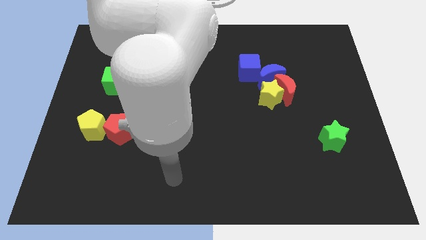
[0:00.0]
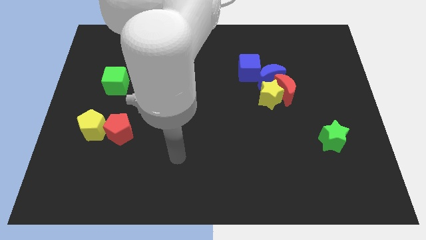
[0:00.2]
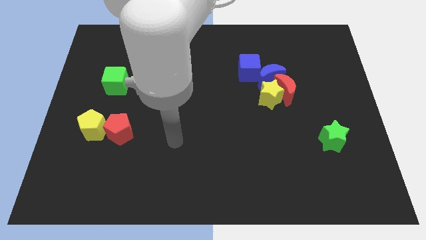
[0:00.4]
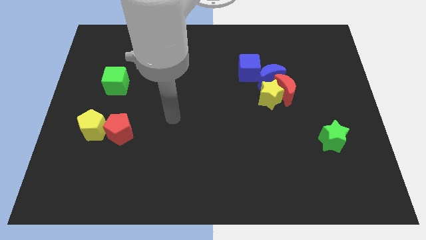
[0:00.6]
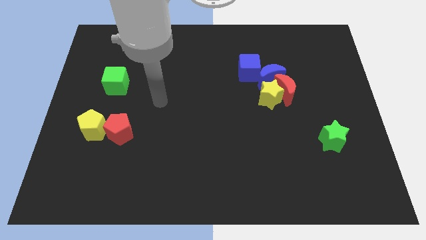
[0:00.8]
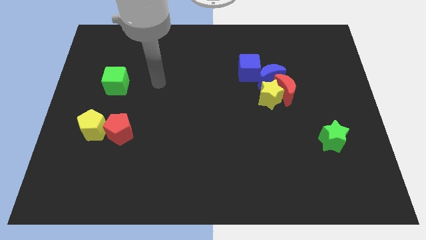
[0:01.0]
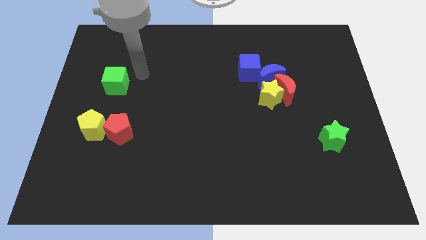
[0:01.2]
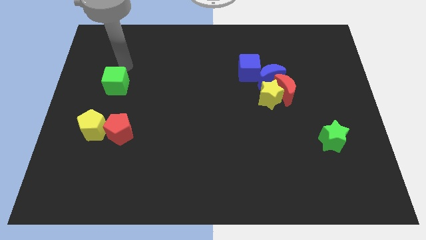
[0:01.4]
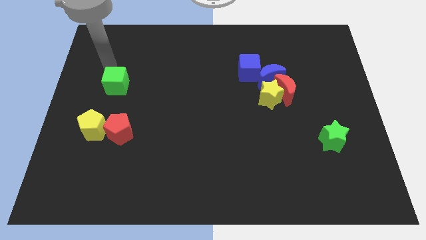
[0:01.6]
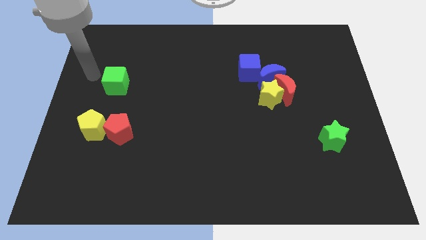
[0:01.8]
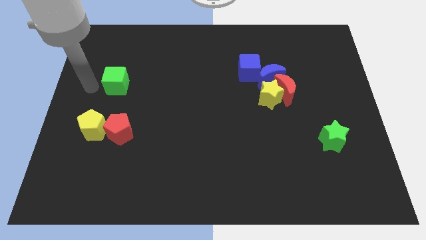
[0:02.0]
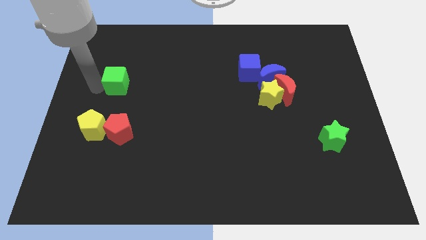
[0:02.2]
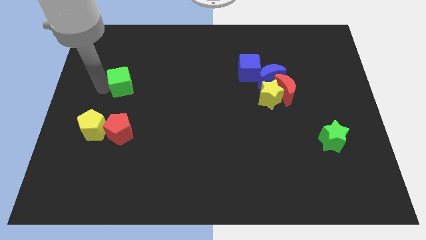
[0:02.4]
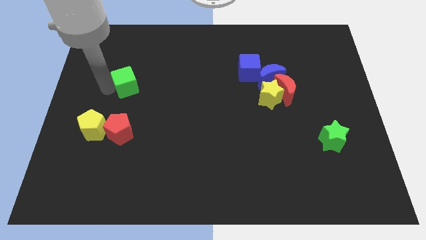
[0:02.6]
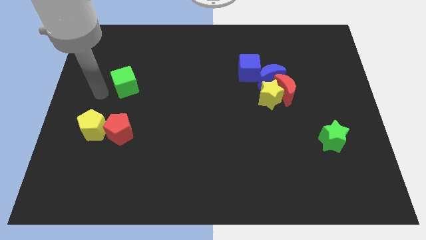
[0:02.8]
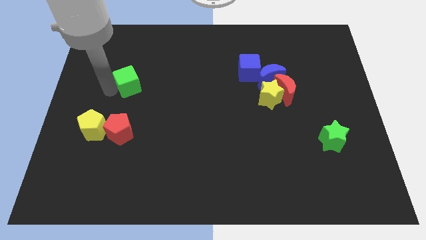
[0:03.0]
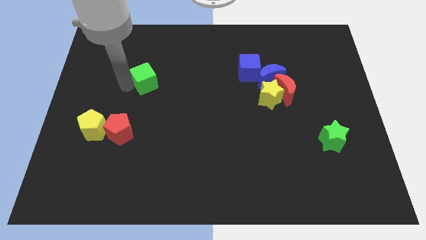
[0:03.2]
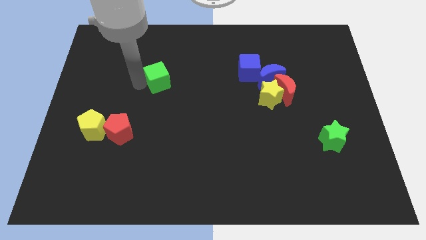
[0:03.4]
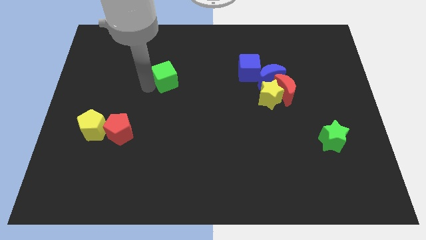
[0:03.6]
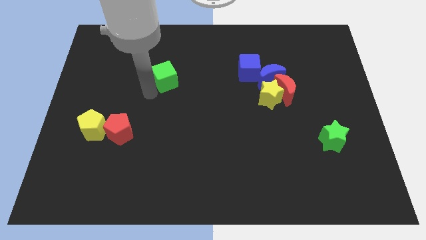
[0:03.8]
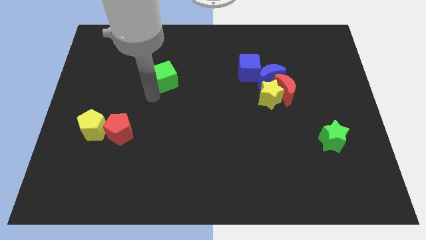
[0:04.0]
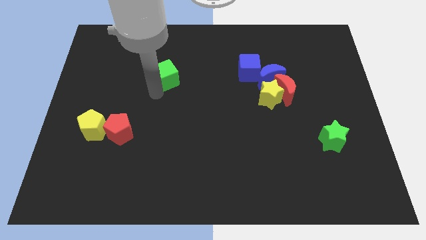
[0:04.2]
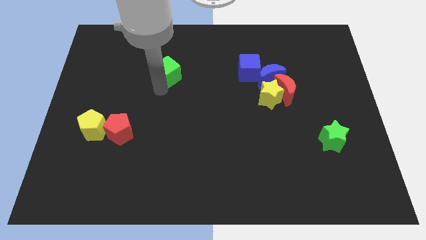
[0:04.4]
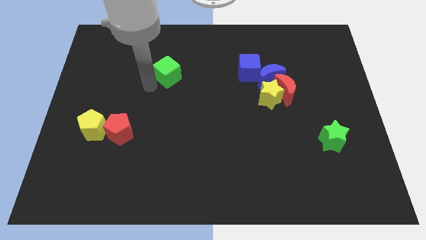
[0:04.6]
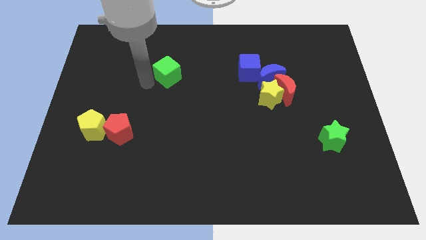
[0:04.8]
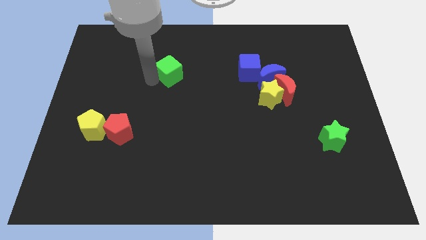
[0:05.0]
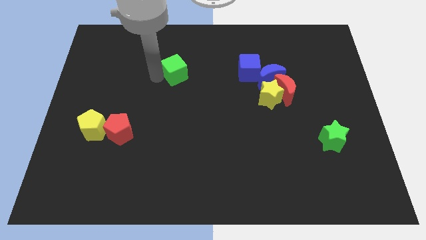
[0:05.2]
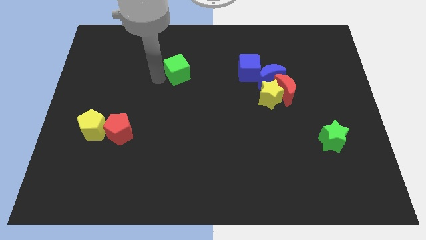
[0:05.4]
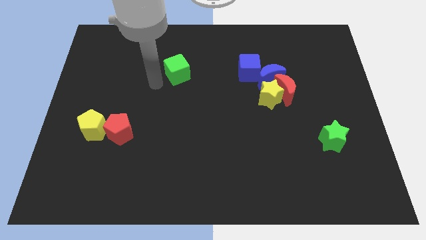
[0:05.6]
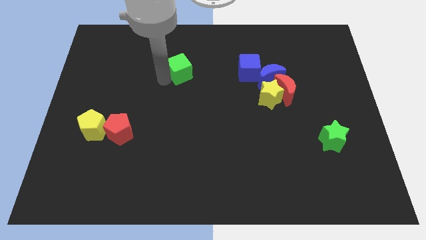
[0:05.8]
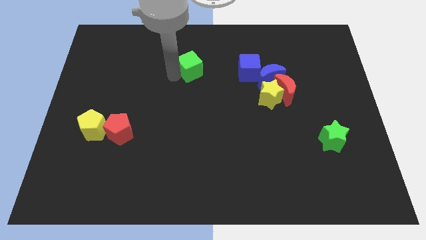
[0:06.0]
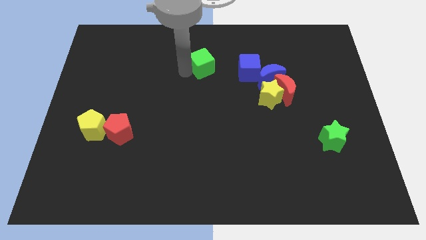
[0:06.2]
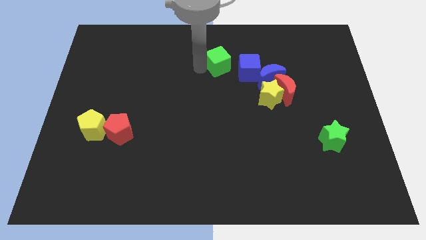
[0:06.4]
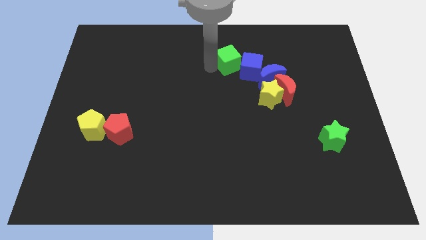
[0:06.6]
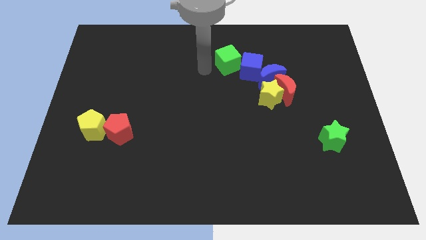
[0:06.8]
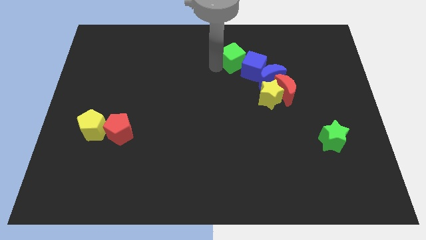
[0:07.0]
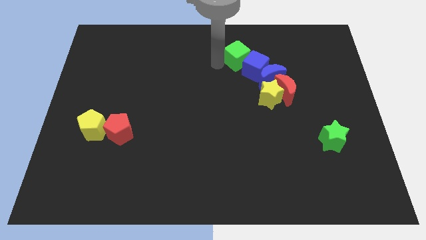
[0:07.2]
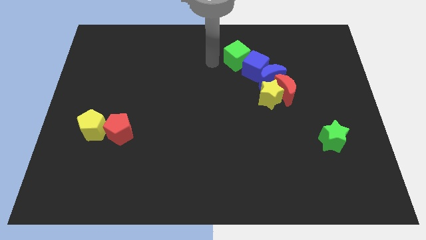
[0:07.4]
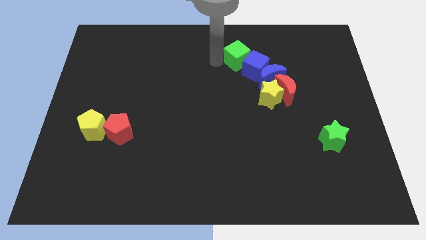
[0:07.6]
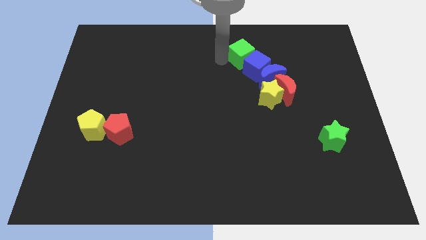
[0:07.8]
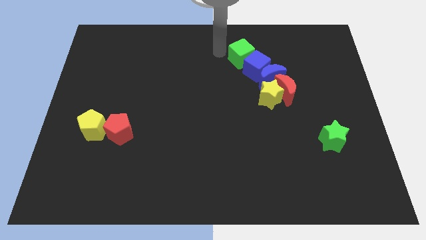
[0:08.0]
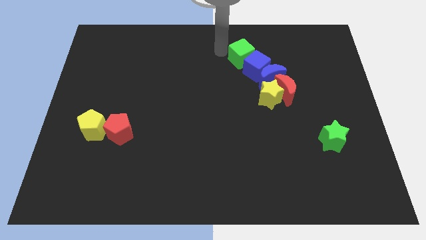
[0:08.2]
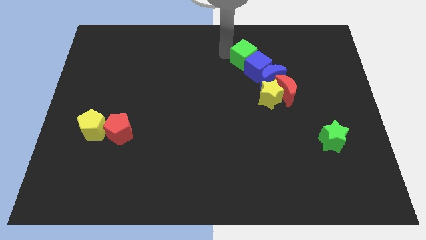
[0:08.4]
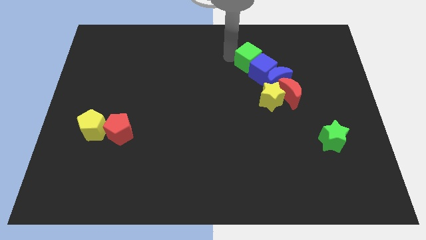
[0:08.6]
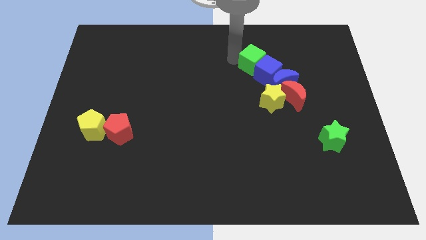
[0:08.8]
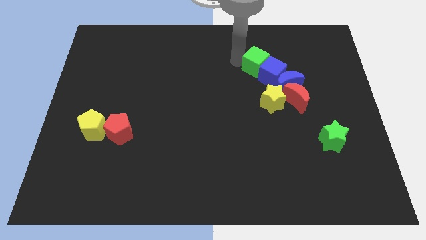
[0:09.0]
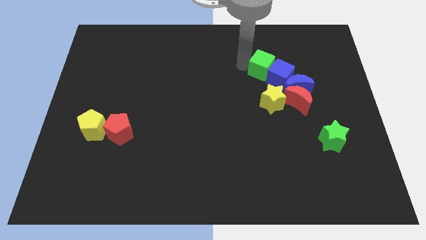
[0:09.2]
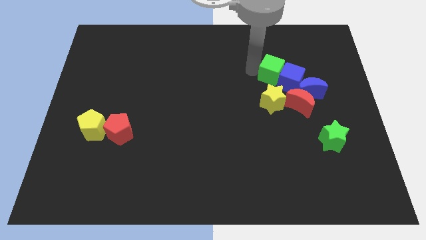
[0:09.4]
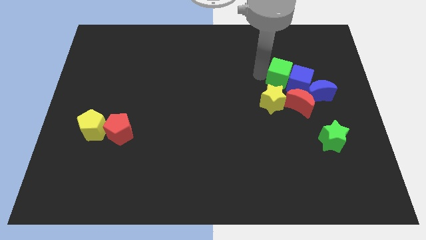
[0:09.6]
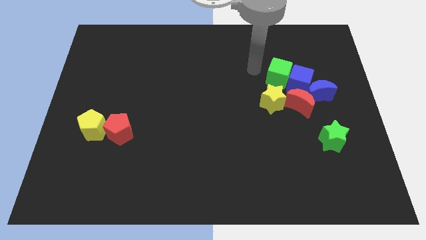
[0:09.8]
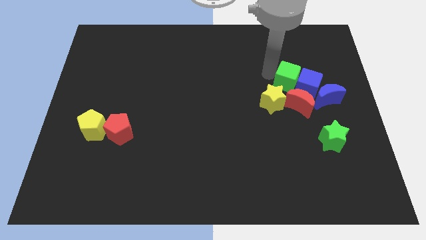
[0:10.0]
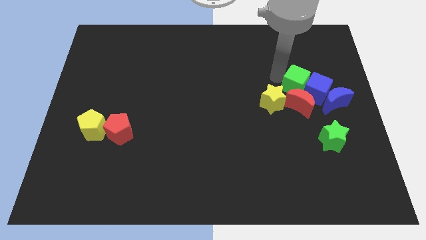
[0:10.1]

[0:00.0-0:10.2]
put the green cube diagonally up and to the right of the red moon

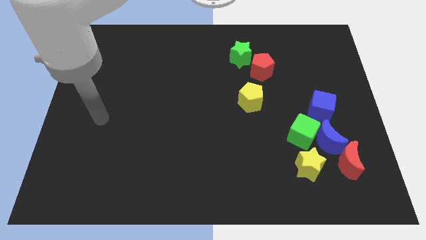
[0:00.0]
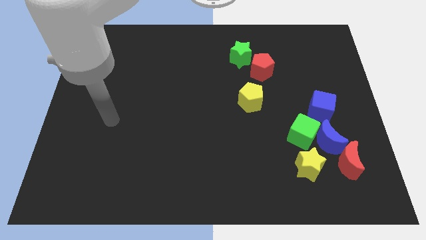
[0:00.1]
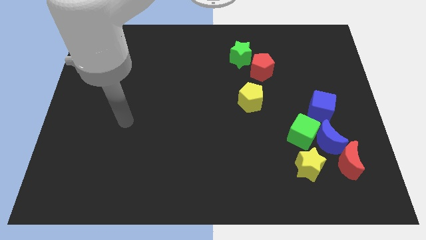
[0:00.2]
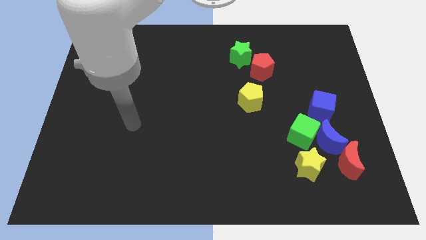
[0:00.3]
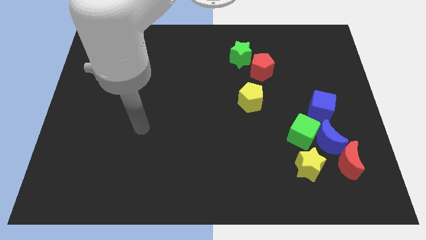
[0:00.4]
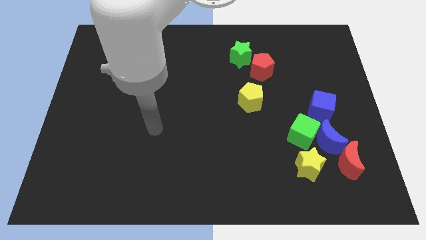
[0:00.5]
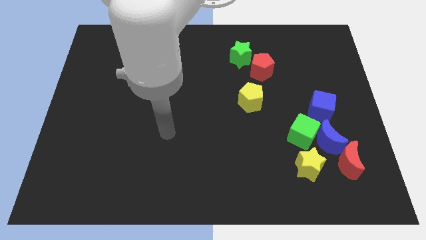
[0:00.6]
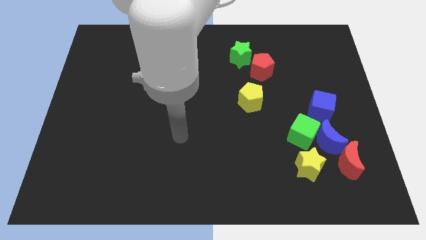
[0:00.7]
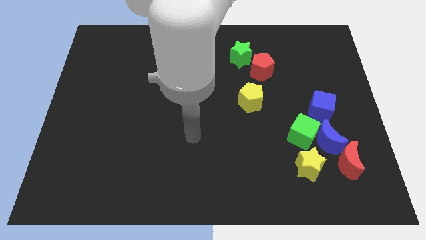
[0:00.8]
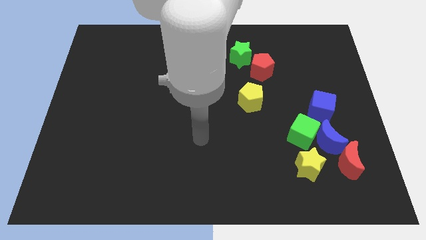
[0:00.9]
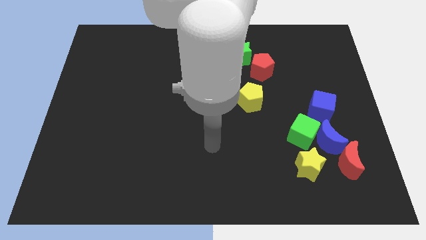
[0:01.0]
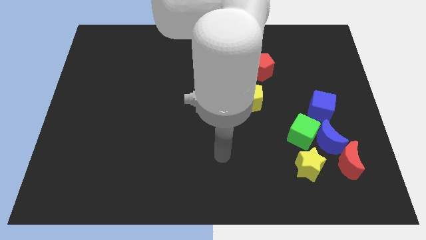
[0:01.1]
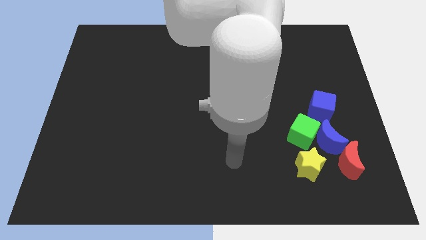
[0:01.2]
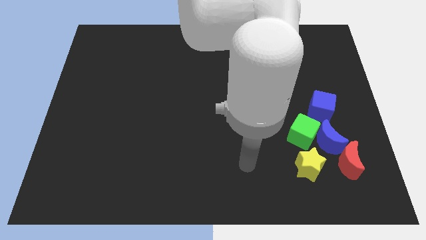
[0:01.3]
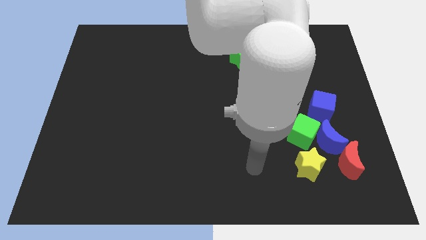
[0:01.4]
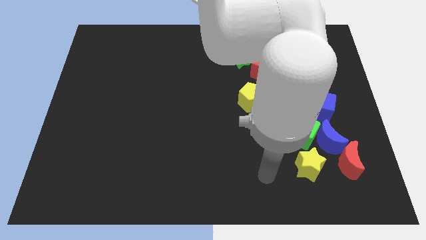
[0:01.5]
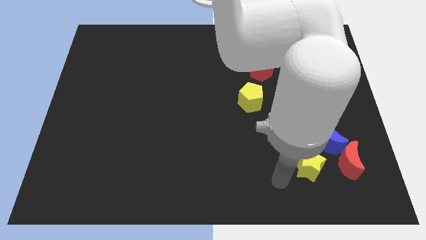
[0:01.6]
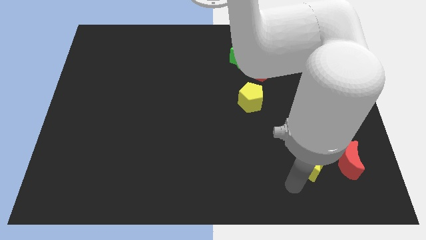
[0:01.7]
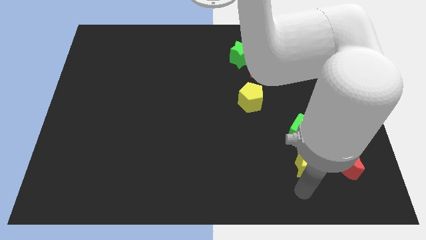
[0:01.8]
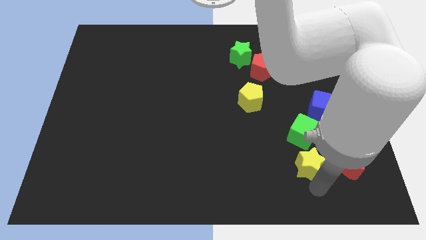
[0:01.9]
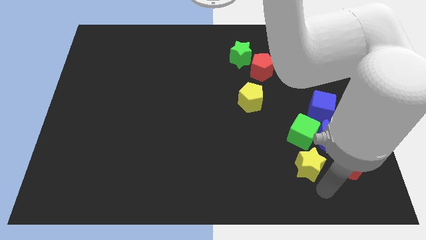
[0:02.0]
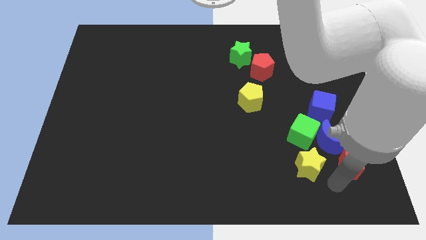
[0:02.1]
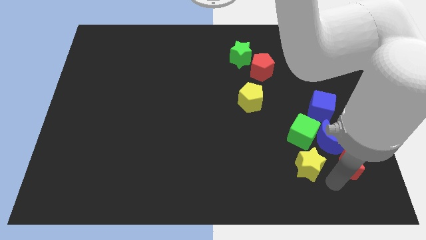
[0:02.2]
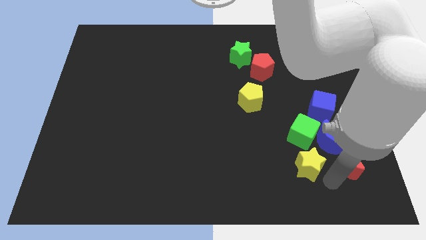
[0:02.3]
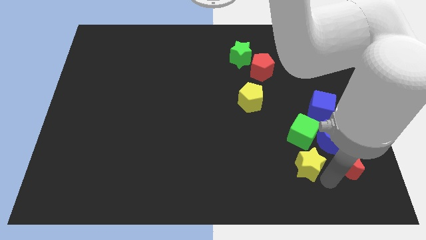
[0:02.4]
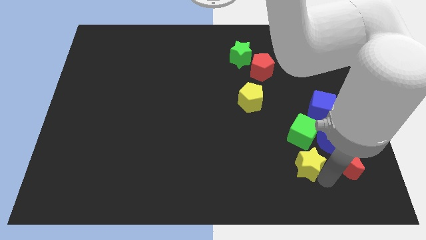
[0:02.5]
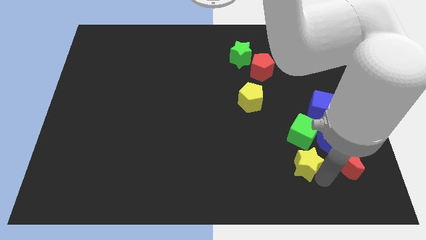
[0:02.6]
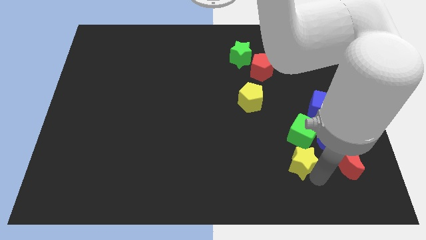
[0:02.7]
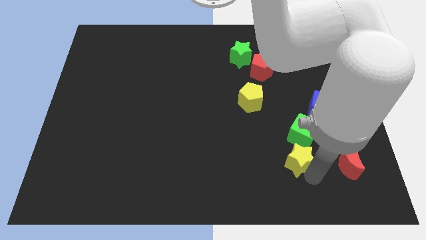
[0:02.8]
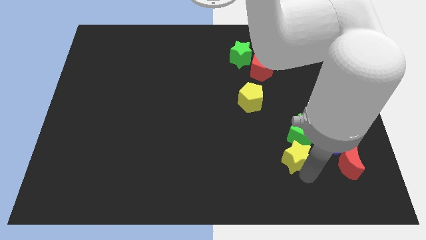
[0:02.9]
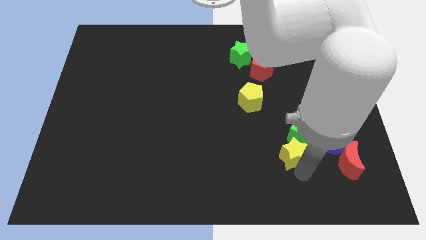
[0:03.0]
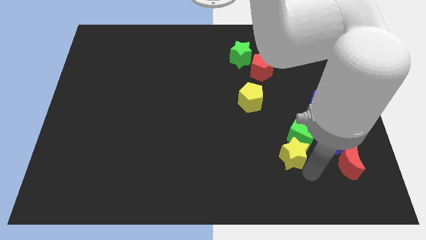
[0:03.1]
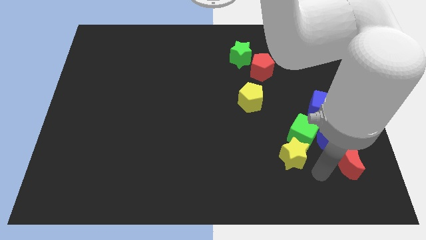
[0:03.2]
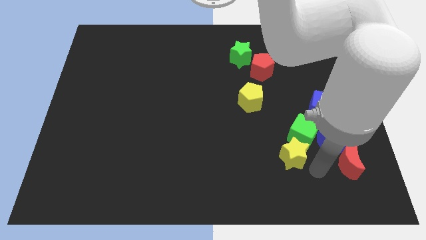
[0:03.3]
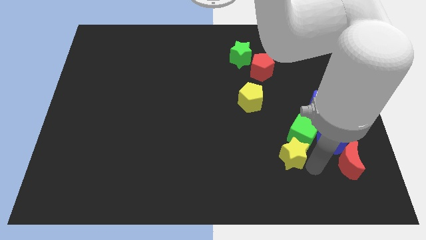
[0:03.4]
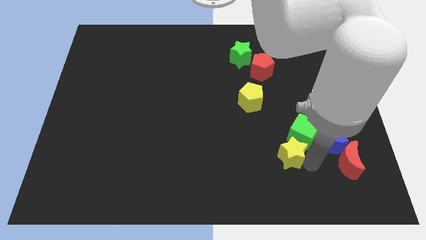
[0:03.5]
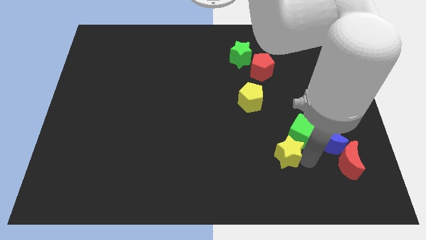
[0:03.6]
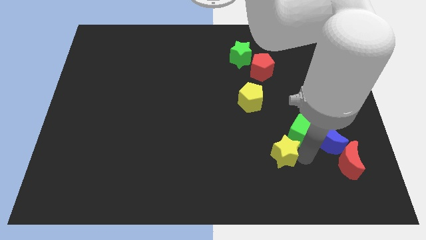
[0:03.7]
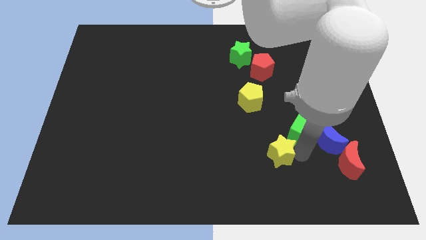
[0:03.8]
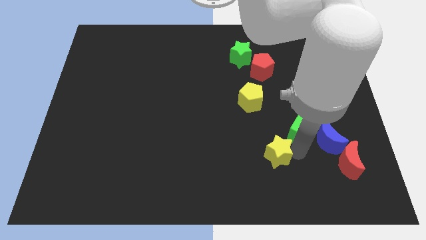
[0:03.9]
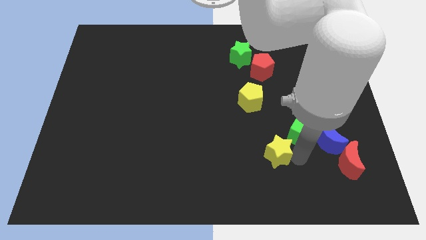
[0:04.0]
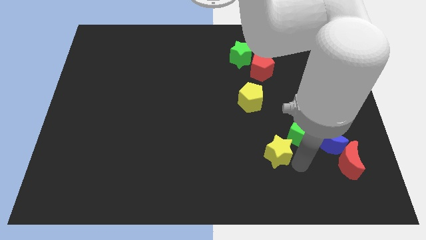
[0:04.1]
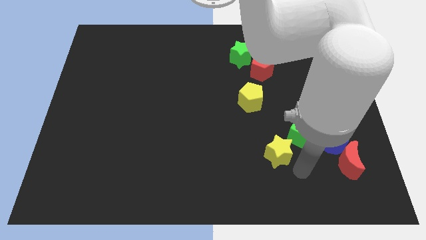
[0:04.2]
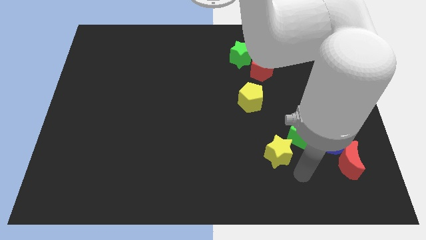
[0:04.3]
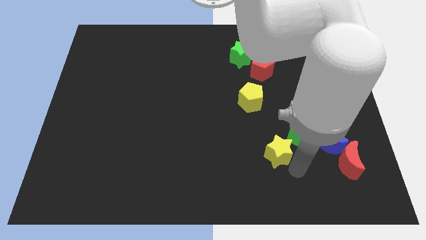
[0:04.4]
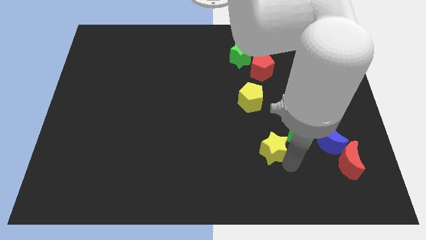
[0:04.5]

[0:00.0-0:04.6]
push the yellow star to the left of the green cube
